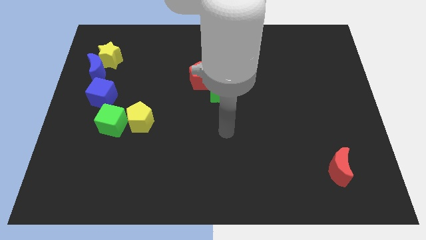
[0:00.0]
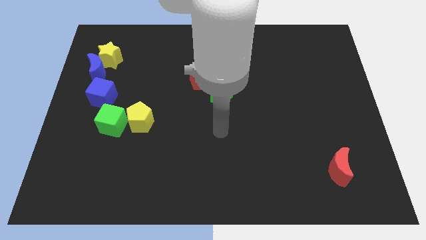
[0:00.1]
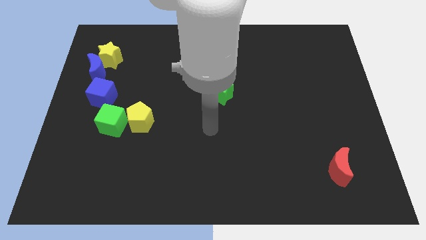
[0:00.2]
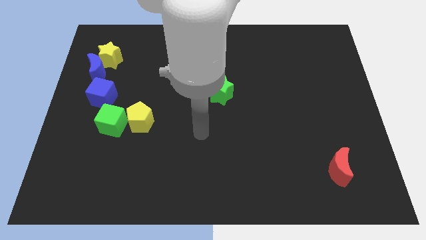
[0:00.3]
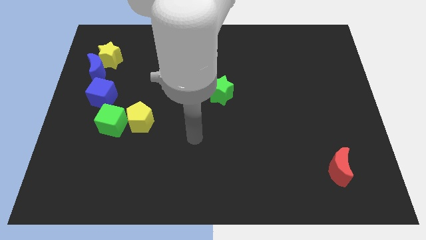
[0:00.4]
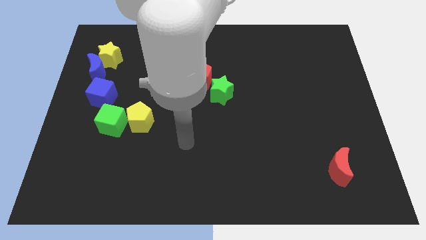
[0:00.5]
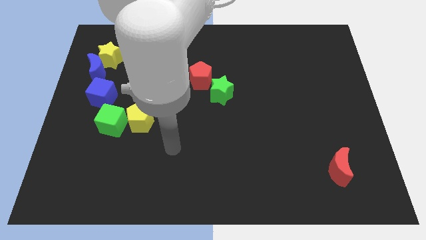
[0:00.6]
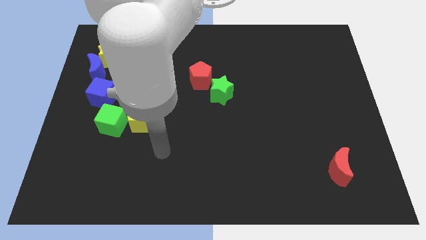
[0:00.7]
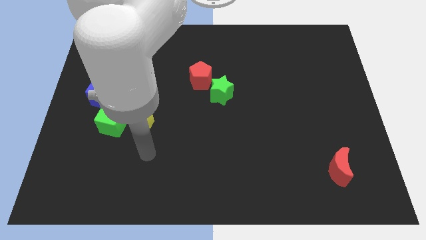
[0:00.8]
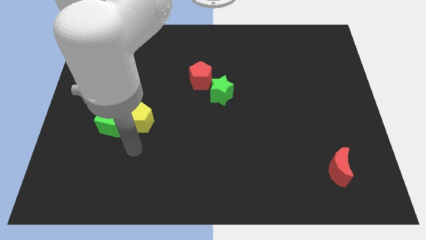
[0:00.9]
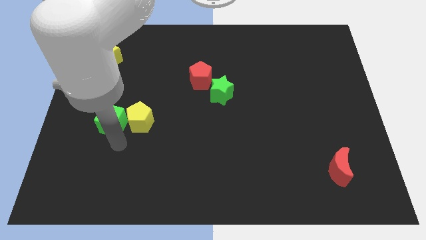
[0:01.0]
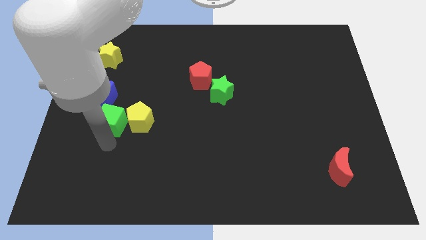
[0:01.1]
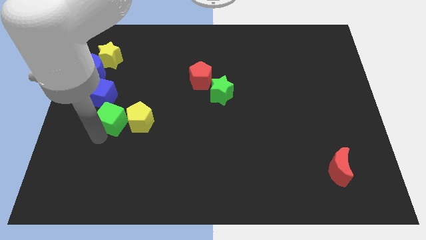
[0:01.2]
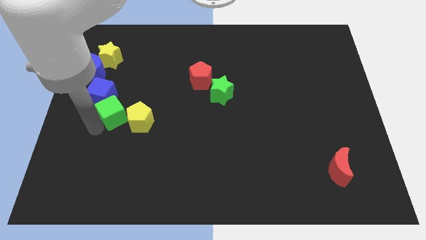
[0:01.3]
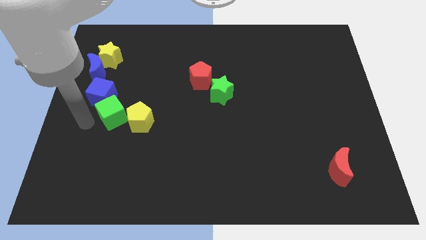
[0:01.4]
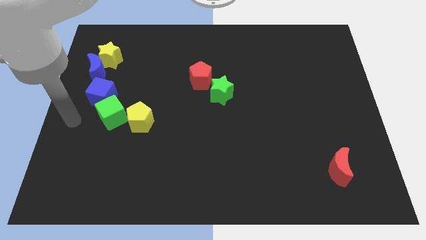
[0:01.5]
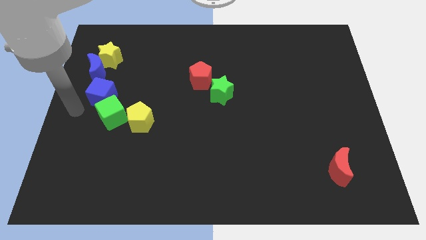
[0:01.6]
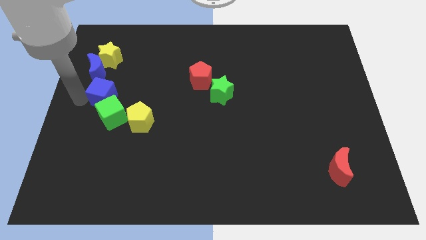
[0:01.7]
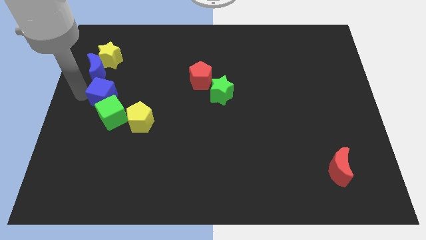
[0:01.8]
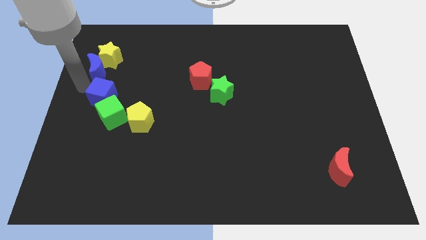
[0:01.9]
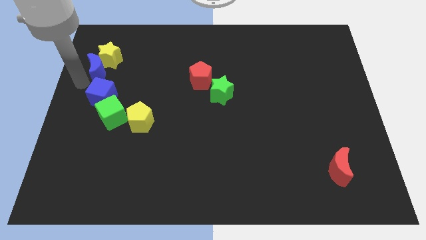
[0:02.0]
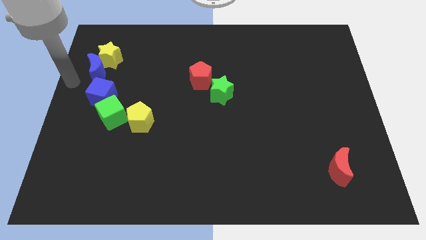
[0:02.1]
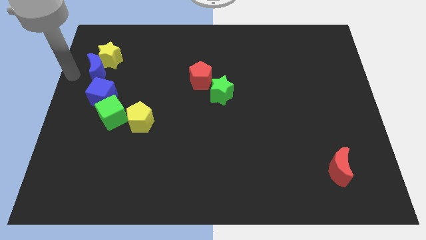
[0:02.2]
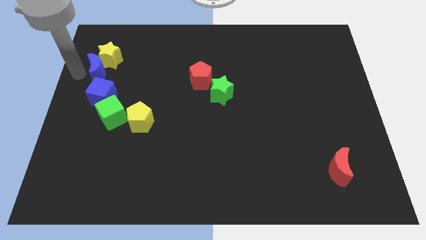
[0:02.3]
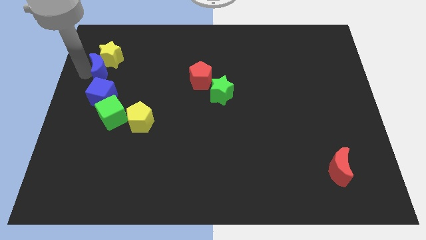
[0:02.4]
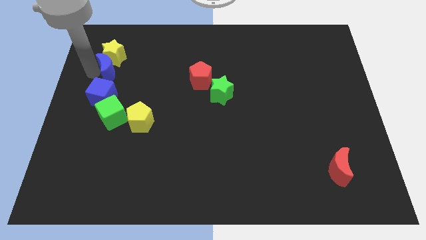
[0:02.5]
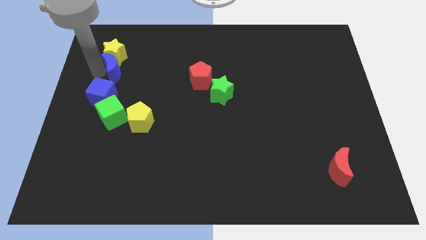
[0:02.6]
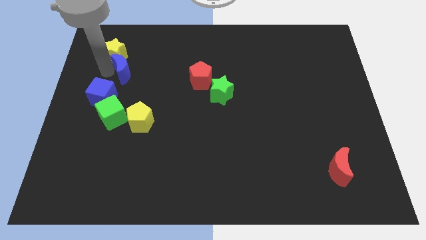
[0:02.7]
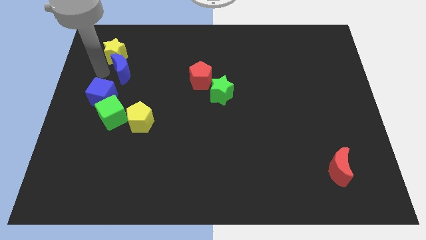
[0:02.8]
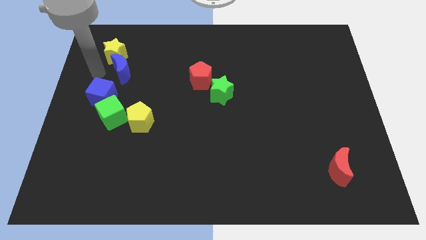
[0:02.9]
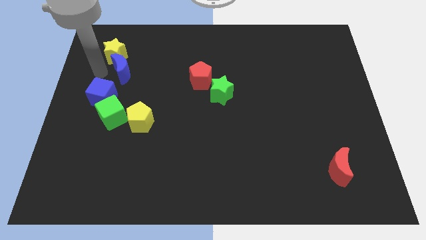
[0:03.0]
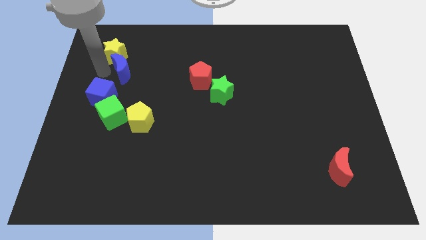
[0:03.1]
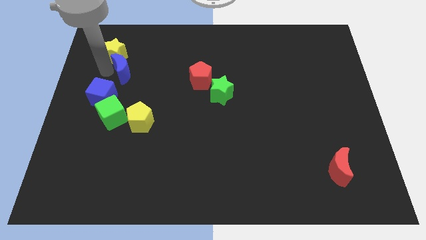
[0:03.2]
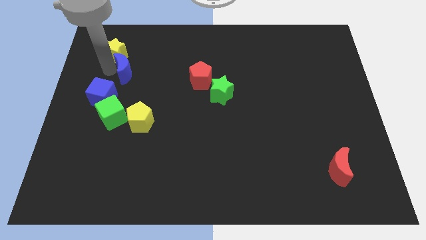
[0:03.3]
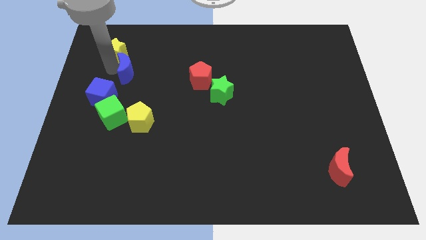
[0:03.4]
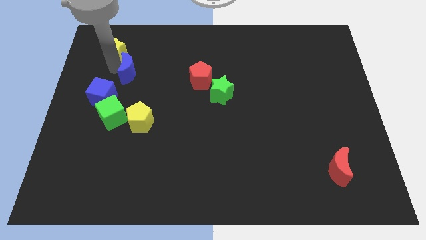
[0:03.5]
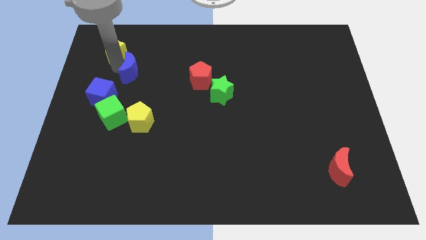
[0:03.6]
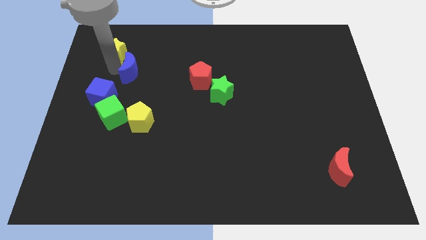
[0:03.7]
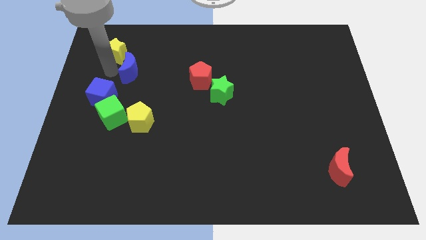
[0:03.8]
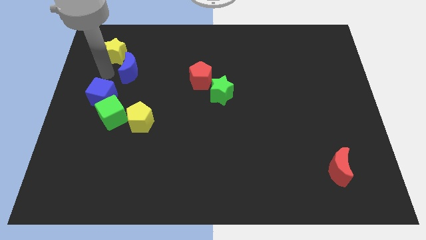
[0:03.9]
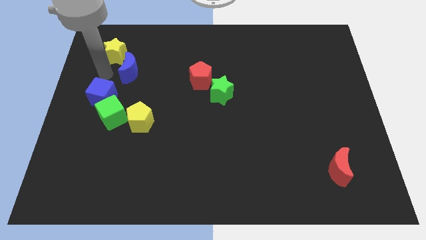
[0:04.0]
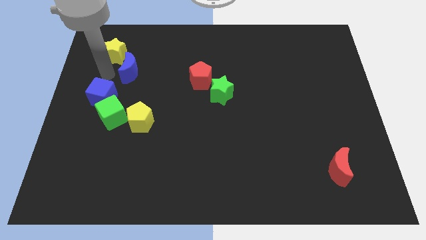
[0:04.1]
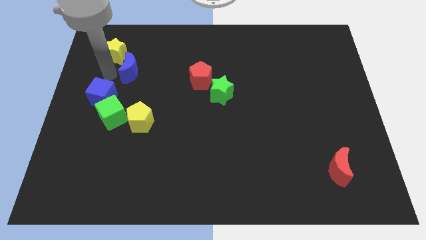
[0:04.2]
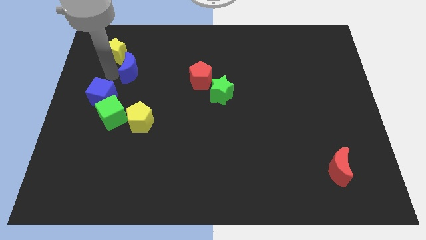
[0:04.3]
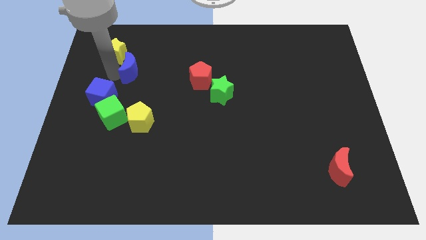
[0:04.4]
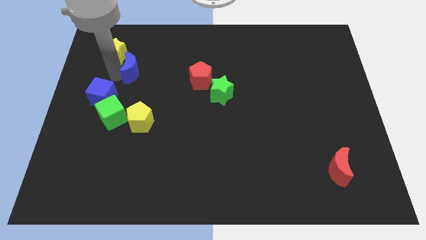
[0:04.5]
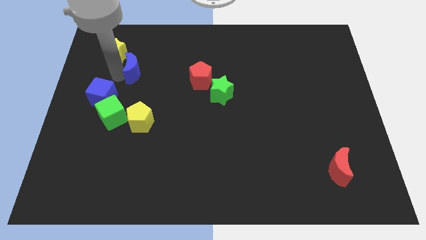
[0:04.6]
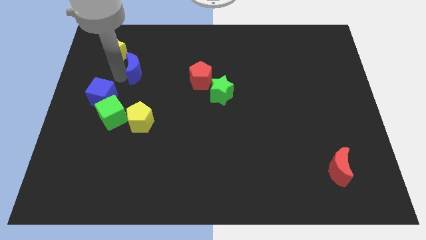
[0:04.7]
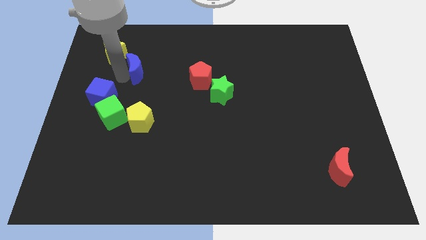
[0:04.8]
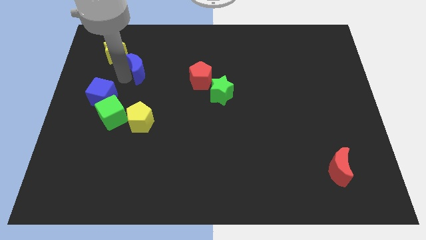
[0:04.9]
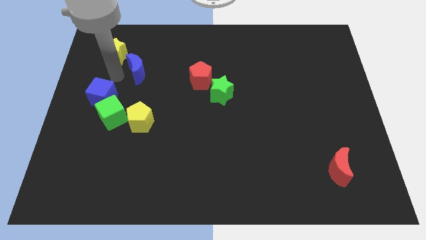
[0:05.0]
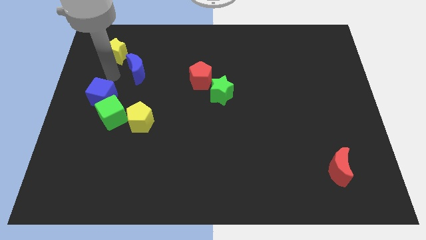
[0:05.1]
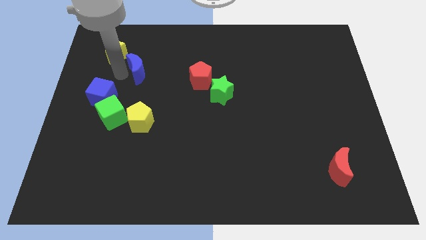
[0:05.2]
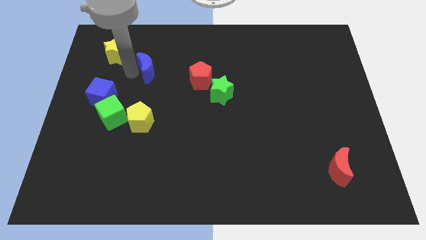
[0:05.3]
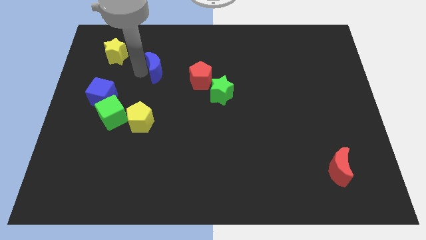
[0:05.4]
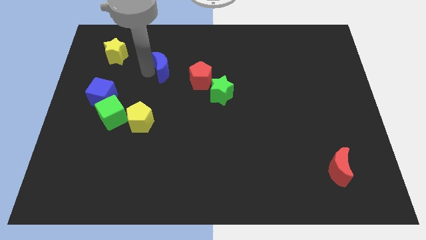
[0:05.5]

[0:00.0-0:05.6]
push the blue moon to the top left of the red pentagon

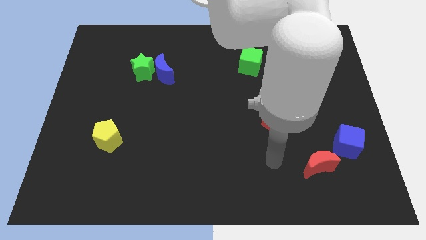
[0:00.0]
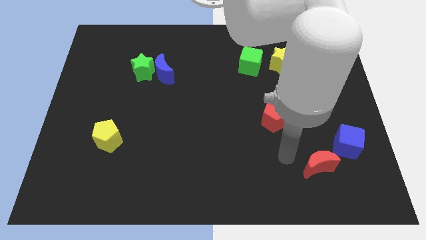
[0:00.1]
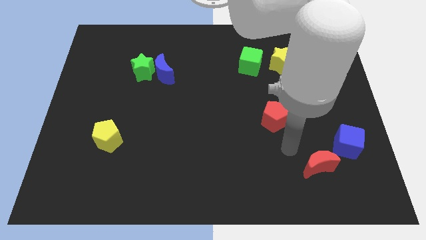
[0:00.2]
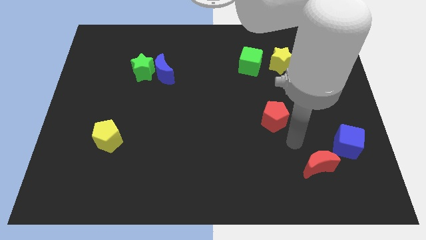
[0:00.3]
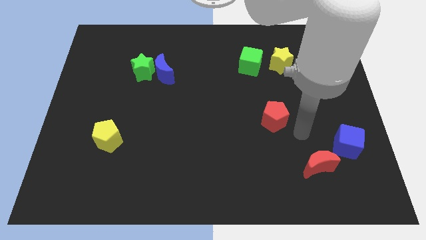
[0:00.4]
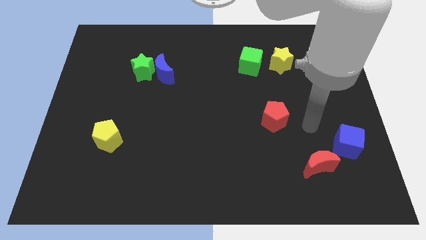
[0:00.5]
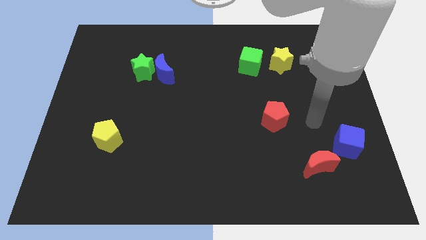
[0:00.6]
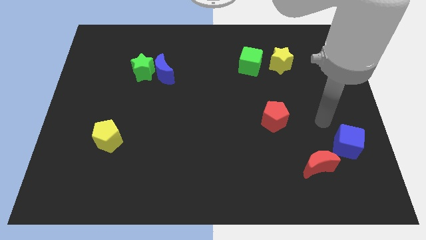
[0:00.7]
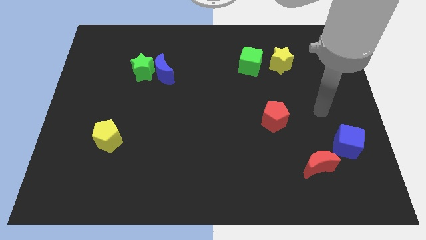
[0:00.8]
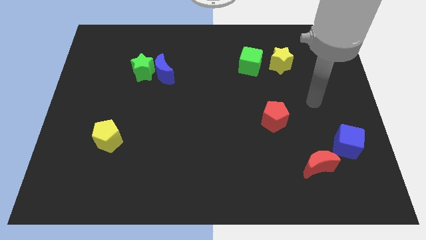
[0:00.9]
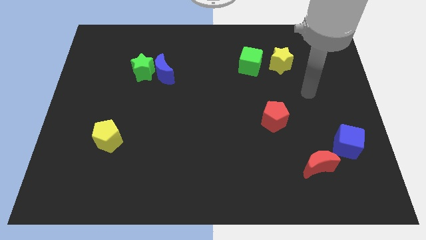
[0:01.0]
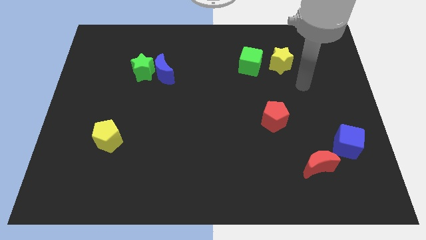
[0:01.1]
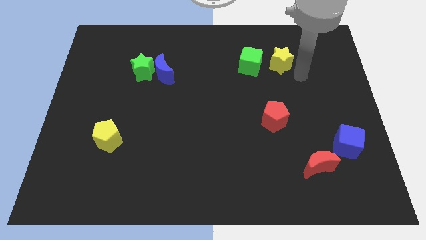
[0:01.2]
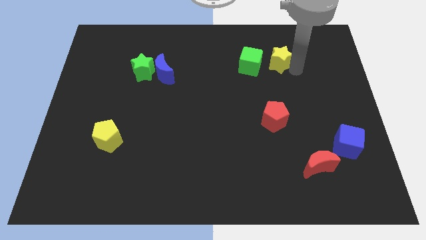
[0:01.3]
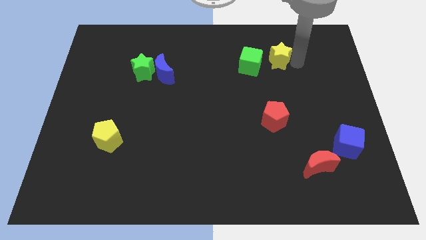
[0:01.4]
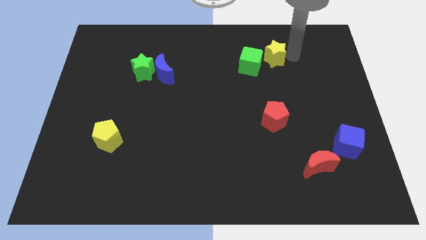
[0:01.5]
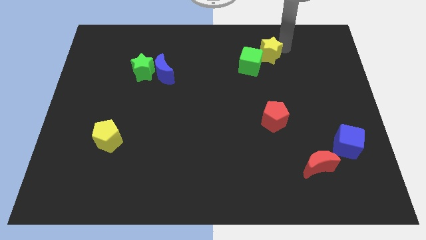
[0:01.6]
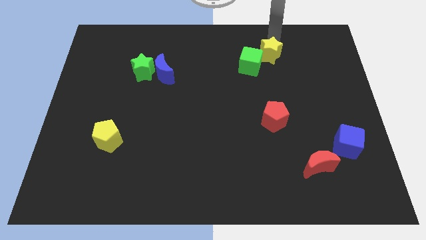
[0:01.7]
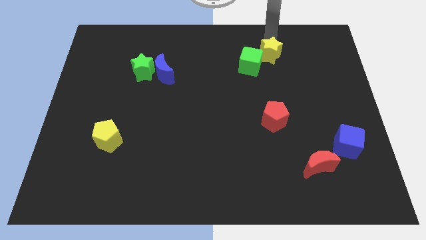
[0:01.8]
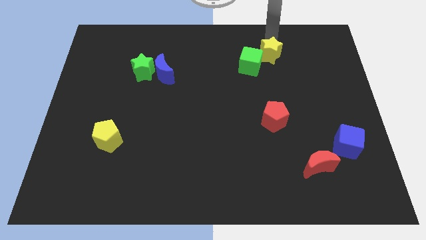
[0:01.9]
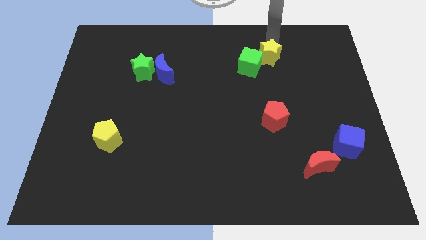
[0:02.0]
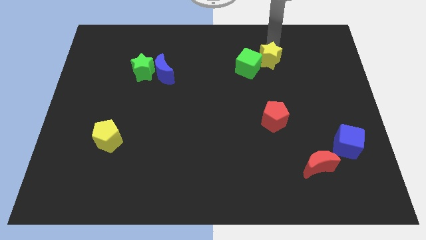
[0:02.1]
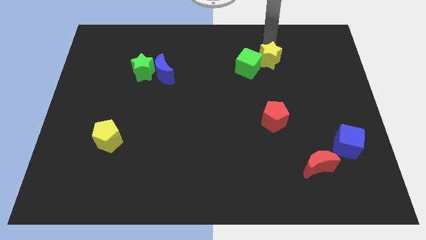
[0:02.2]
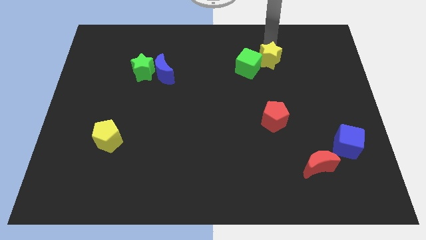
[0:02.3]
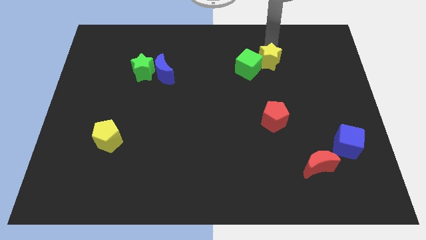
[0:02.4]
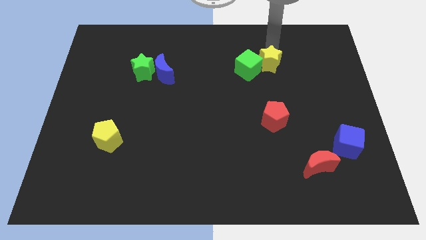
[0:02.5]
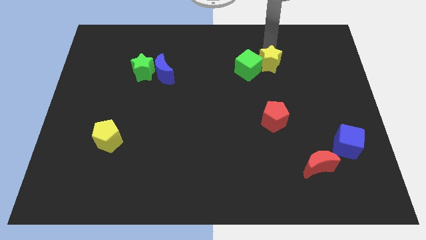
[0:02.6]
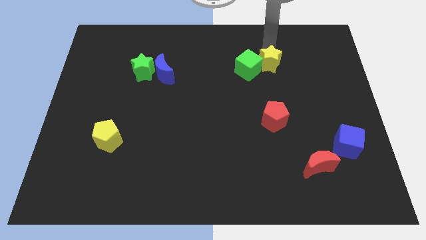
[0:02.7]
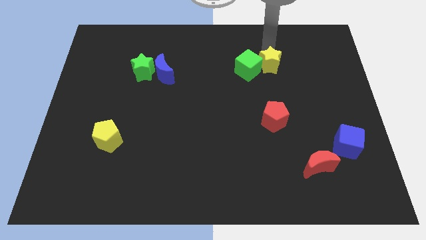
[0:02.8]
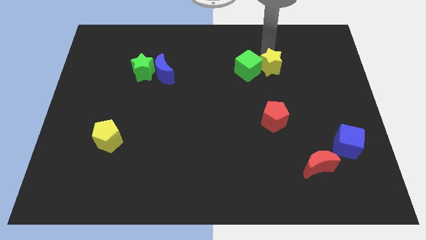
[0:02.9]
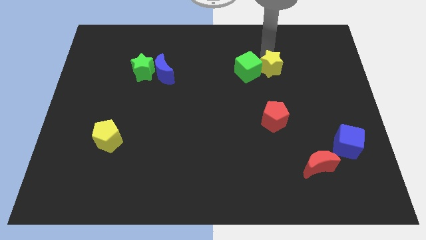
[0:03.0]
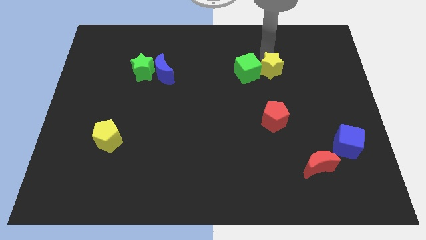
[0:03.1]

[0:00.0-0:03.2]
slide the yellow star to the top side of the red pentagon

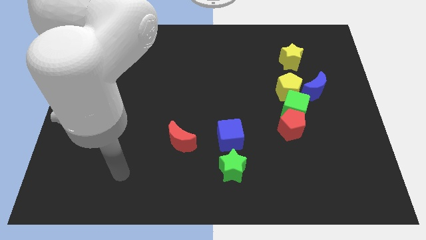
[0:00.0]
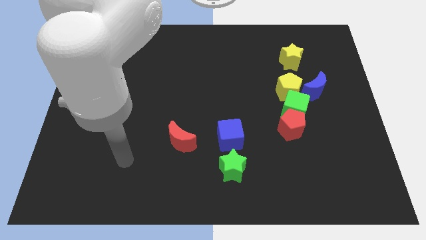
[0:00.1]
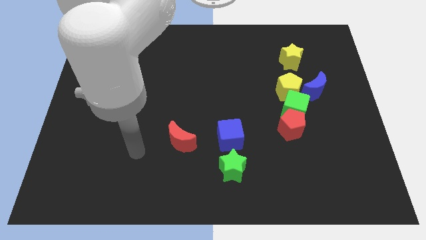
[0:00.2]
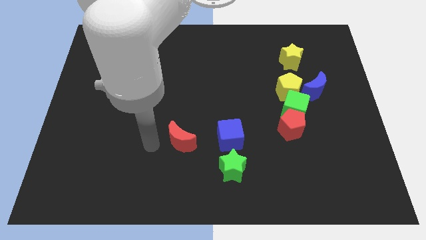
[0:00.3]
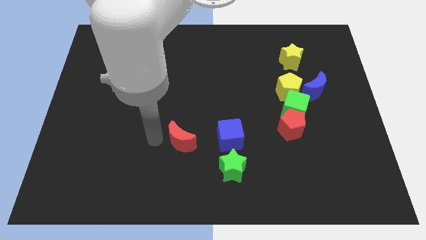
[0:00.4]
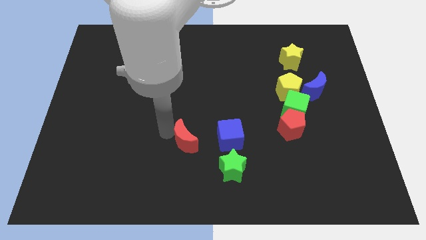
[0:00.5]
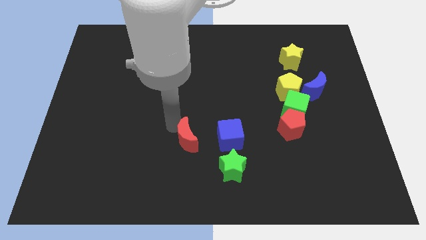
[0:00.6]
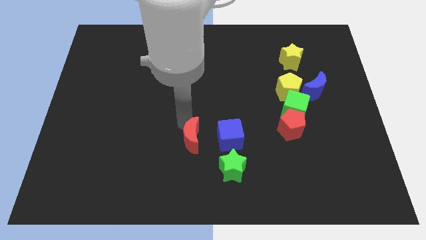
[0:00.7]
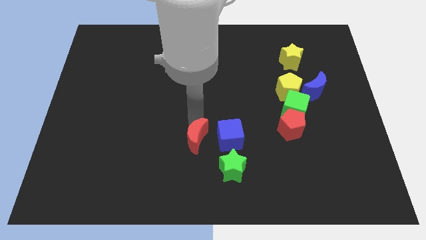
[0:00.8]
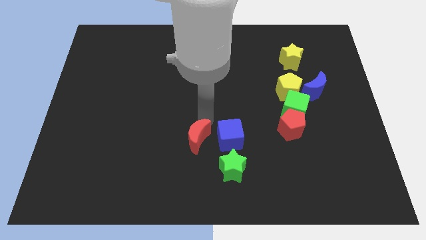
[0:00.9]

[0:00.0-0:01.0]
put the blue cube to the bottom right of the red moon
